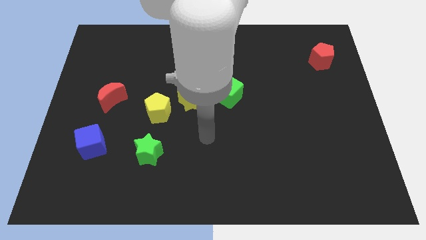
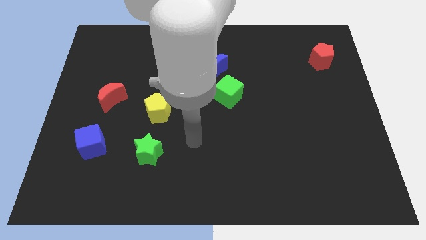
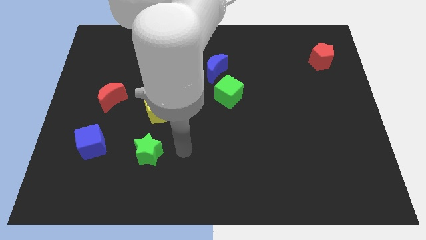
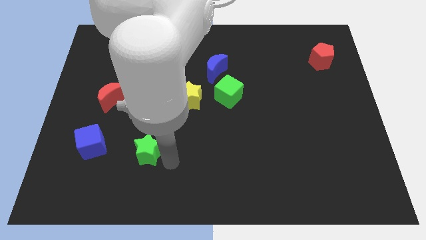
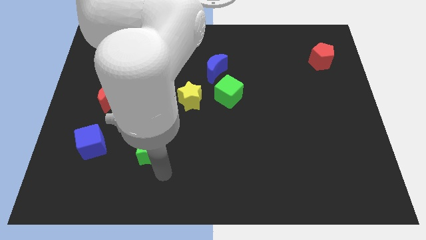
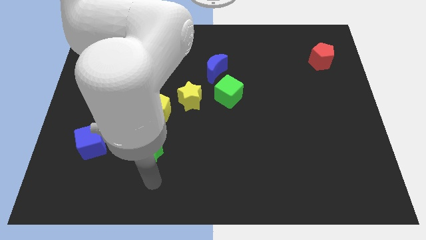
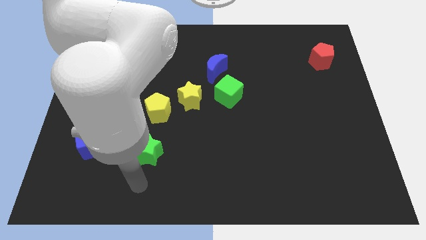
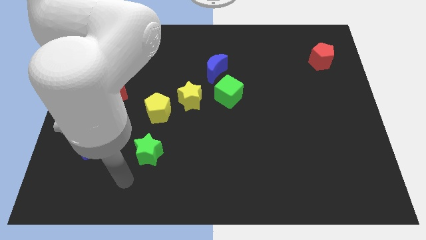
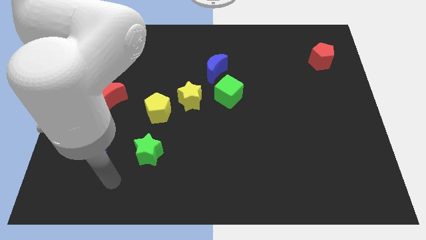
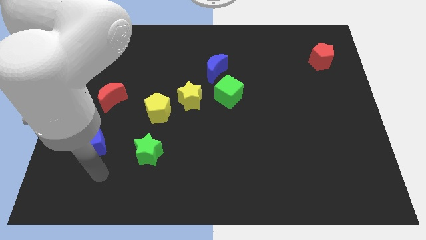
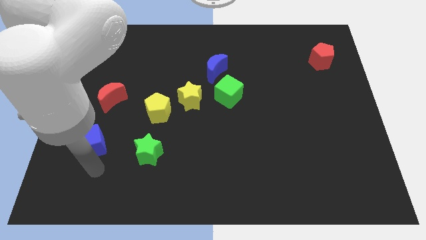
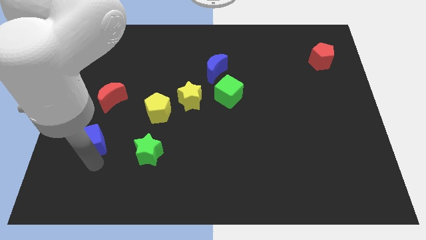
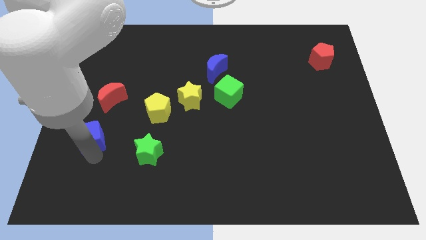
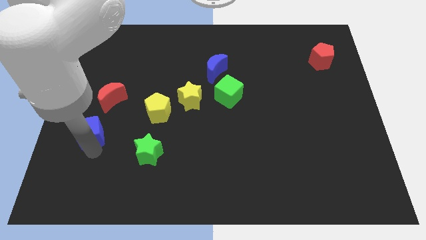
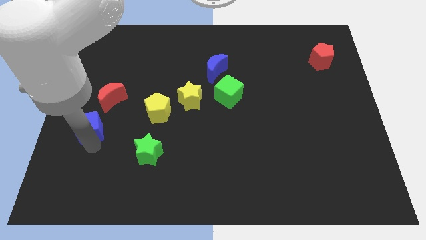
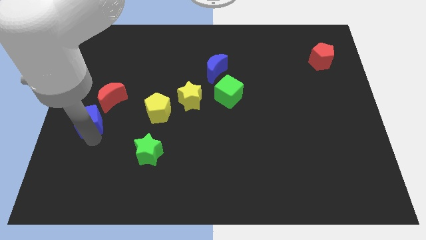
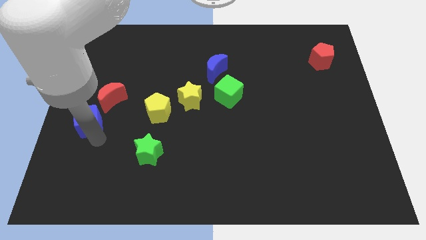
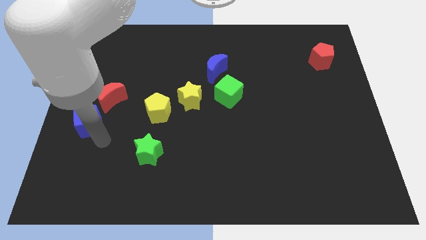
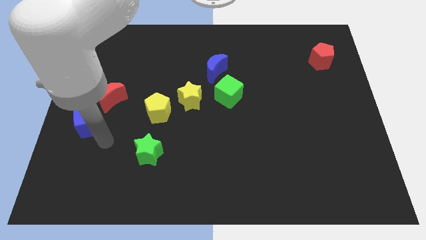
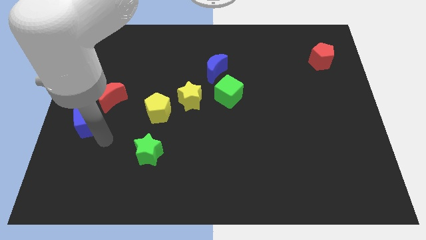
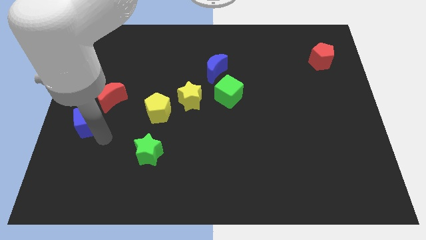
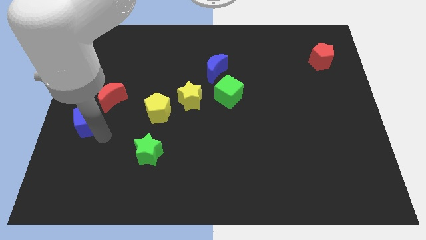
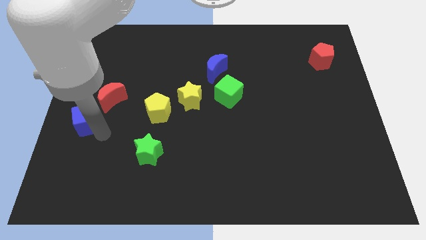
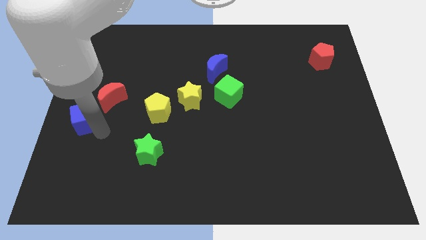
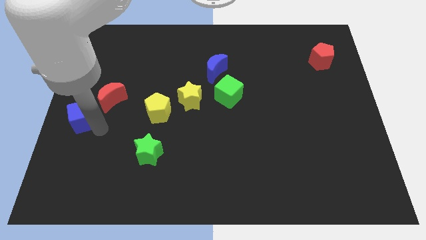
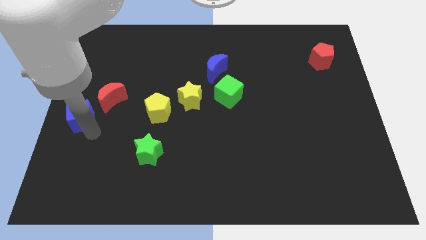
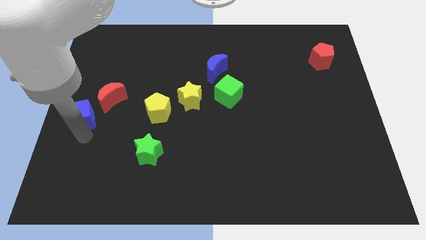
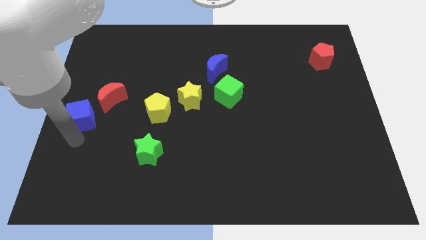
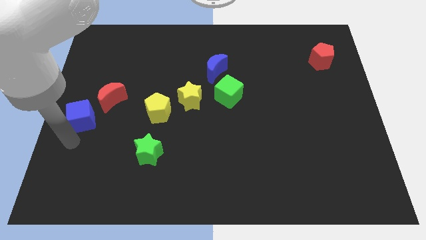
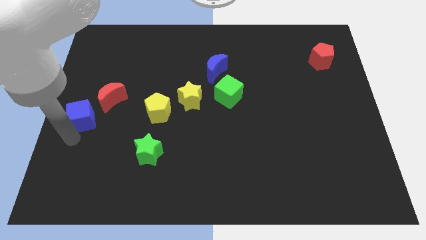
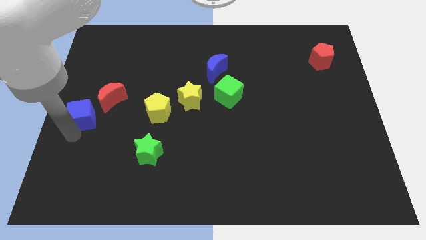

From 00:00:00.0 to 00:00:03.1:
slightly move the blue cube upwards

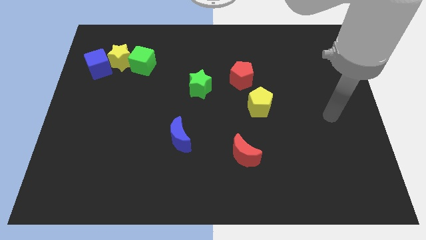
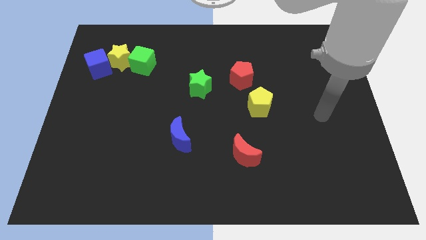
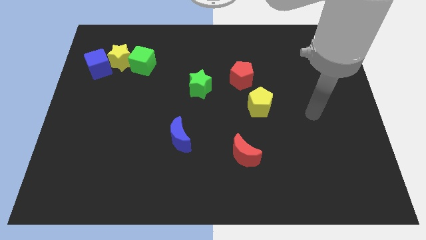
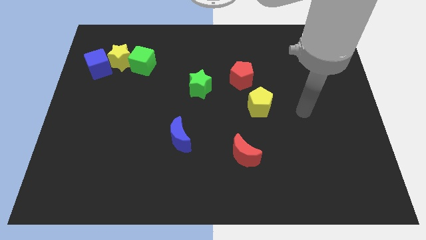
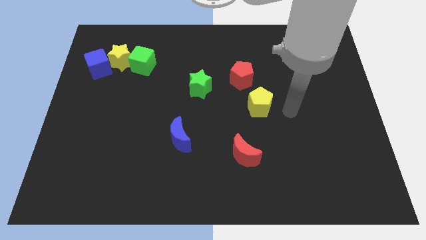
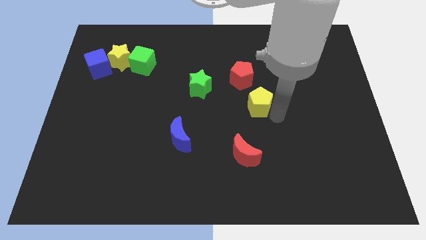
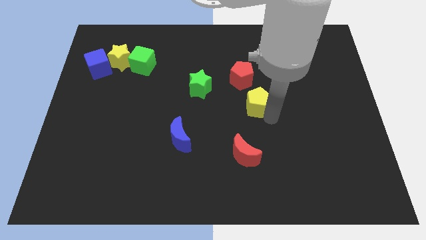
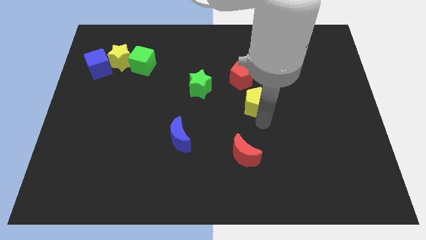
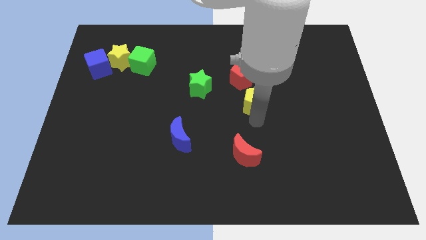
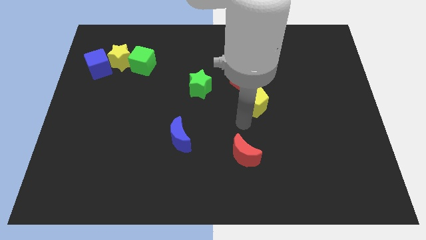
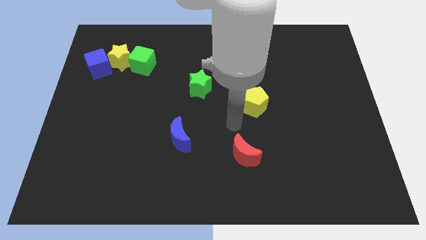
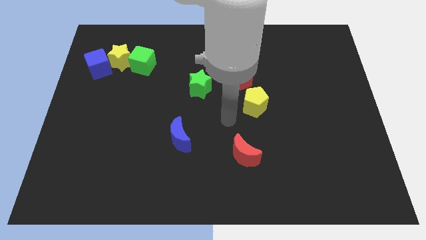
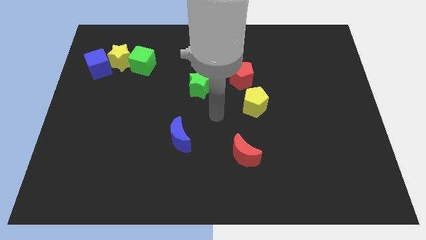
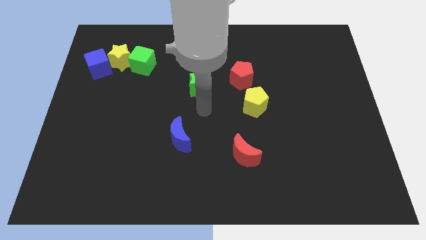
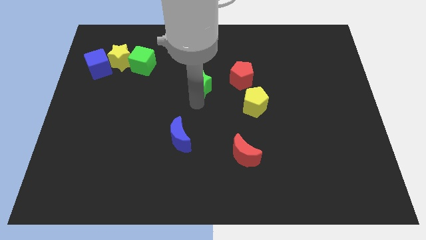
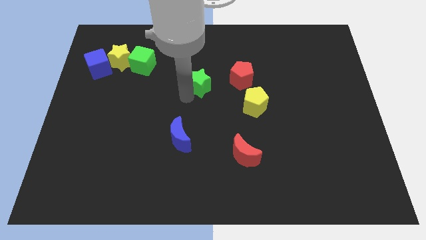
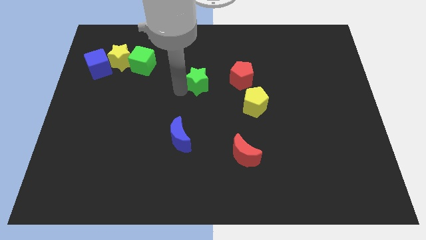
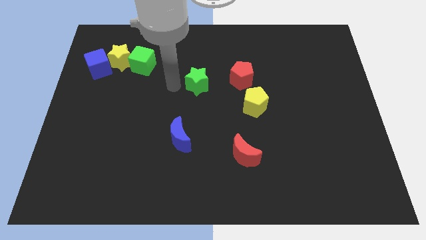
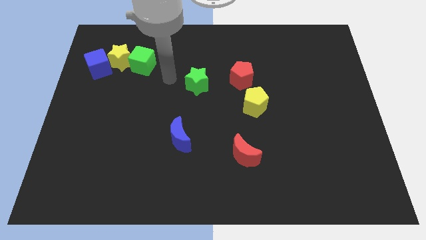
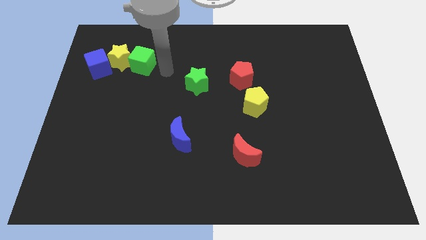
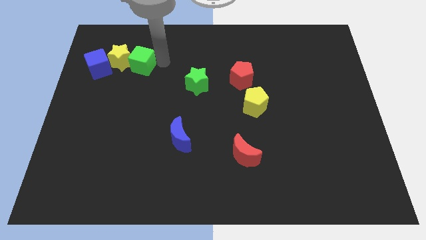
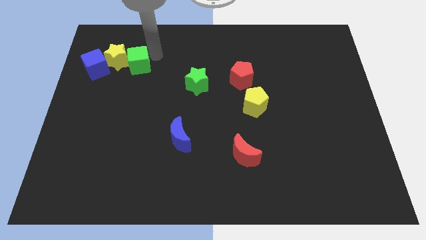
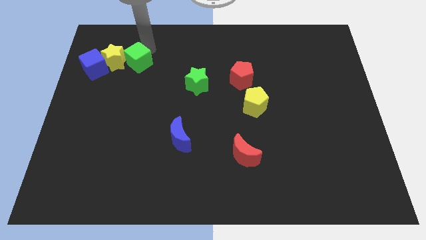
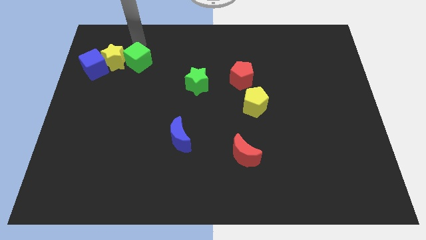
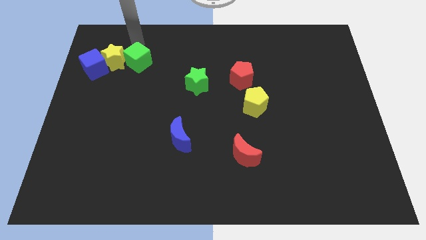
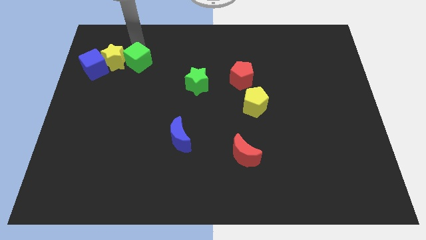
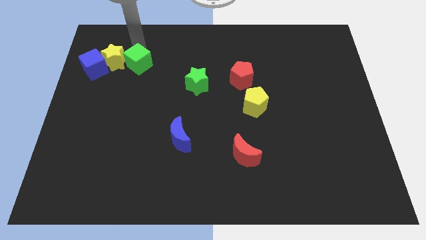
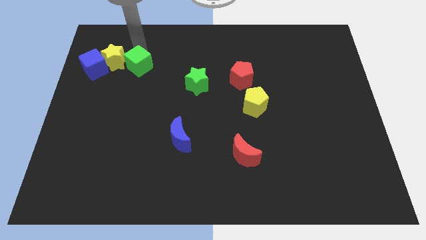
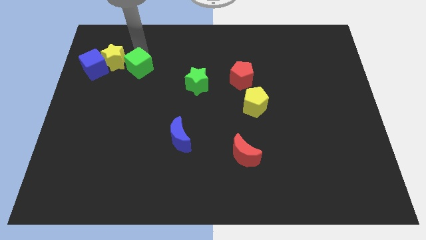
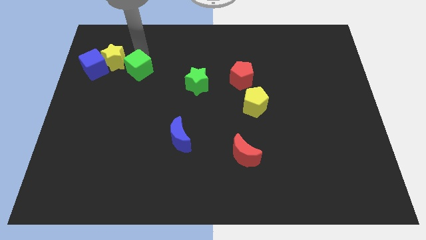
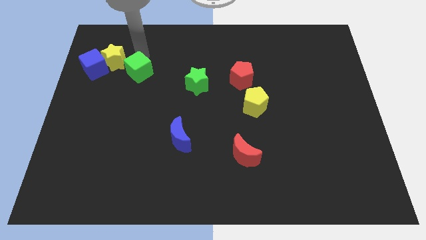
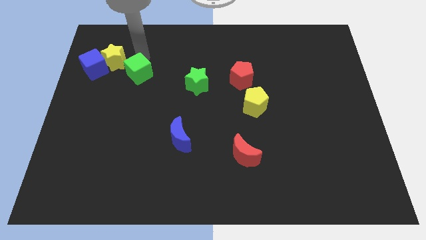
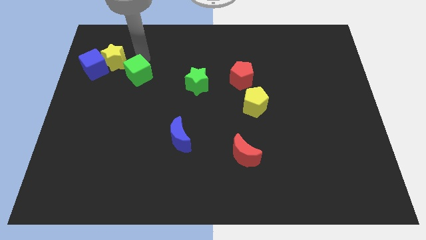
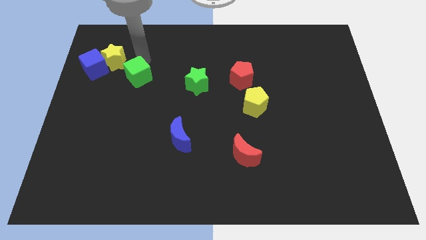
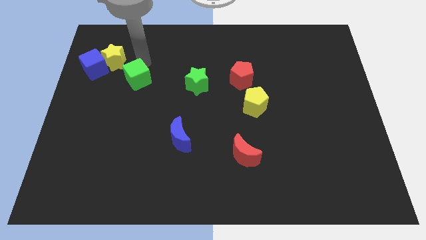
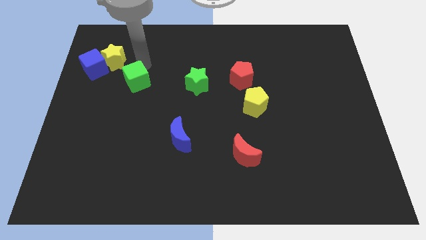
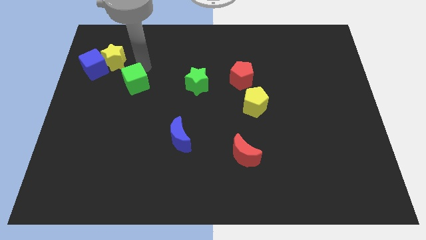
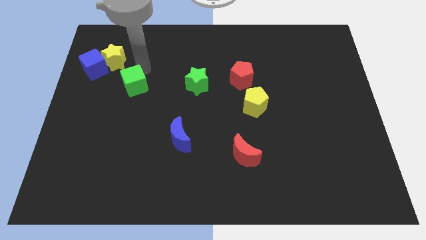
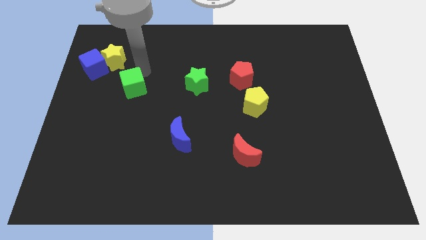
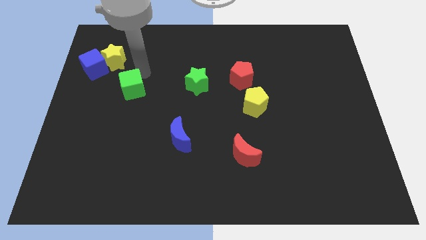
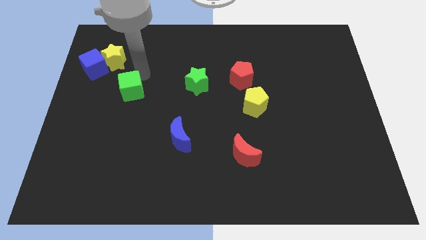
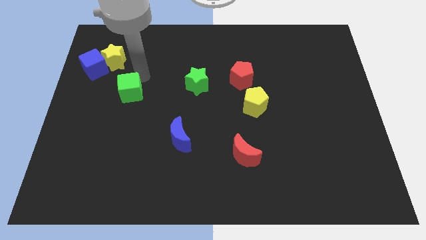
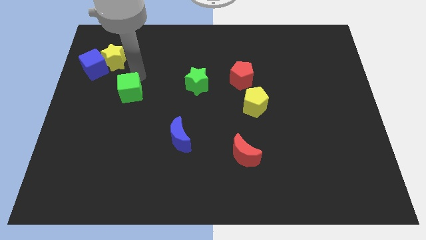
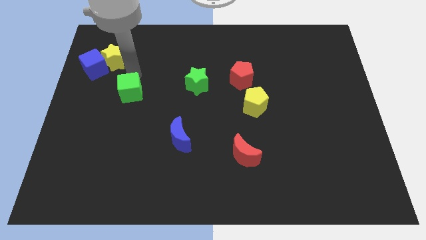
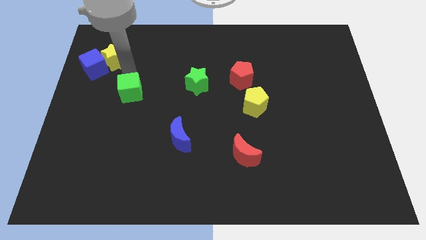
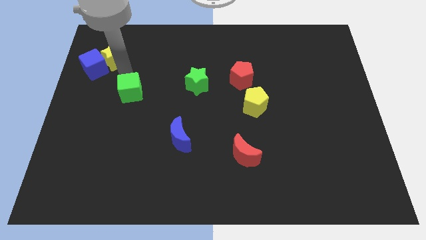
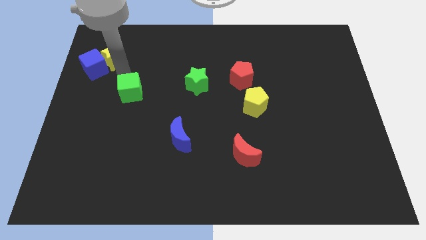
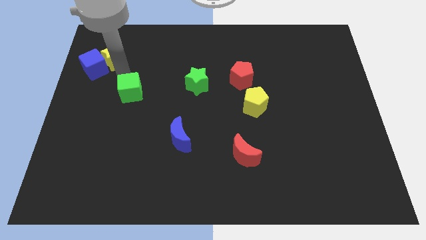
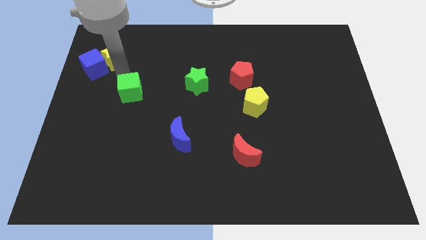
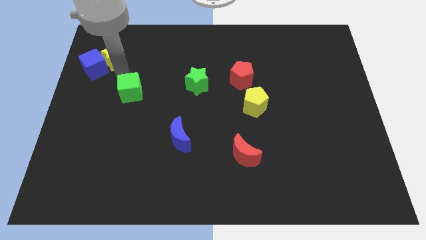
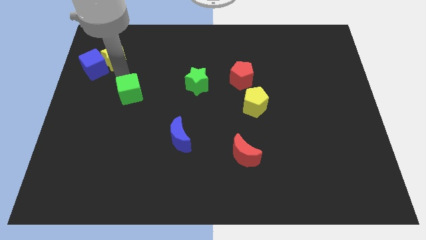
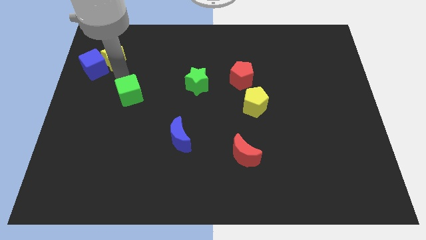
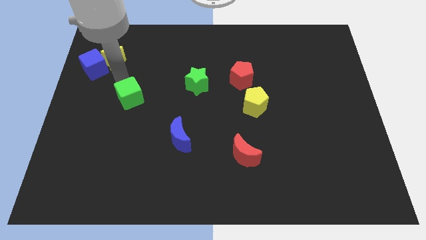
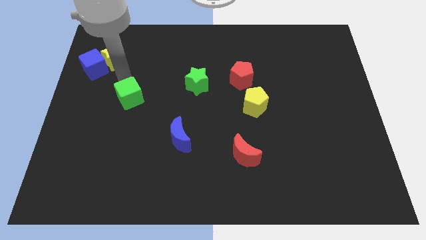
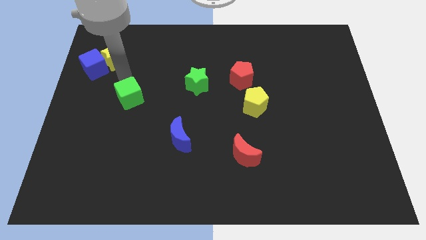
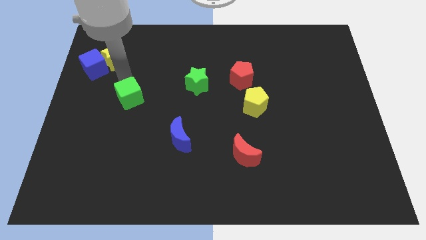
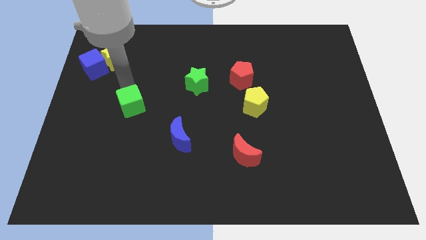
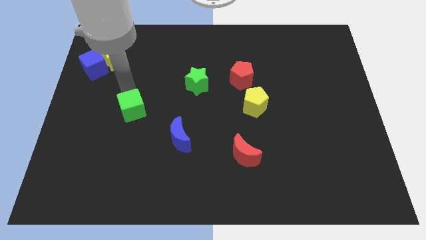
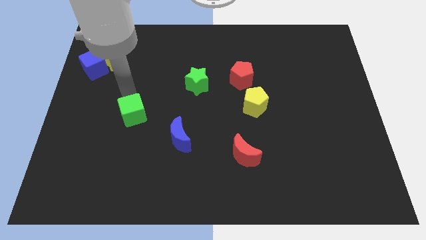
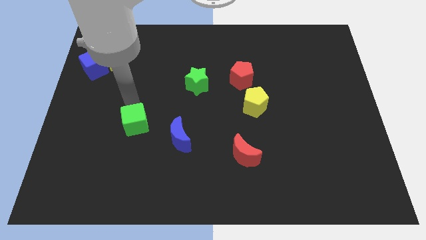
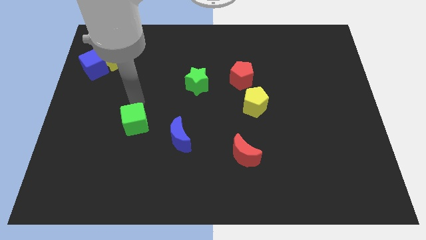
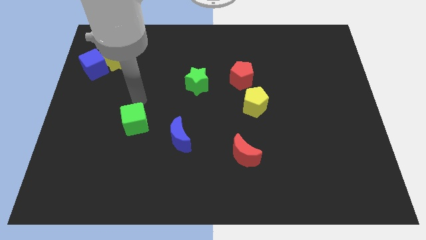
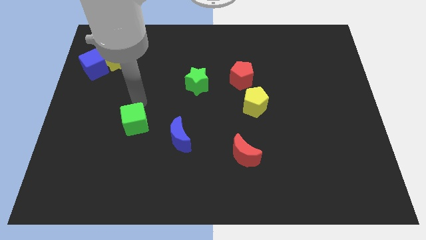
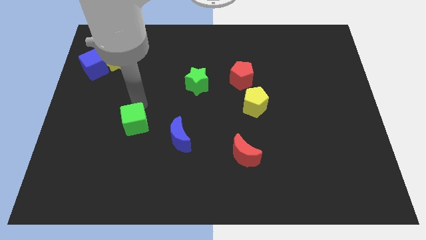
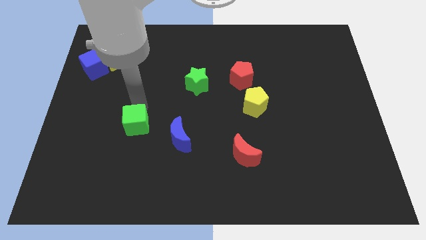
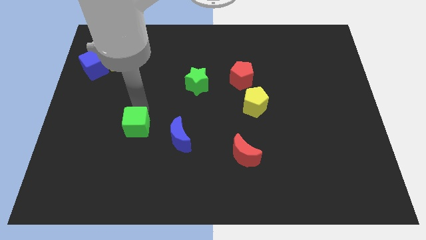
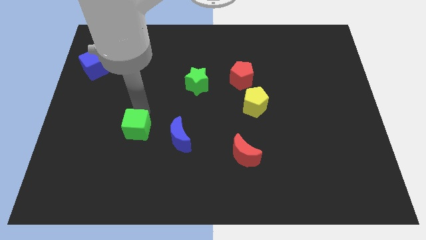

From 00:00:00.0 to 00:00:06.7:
push the green cube down
